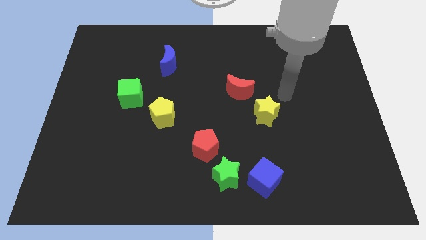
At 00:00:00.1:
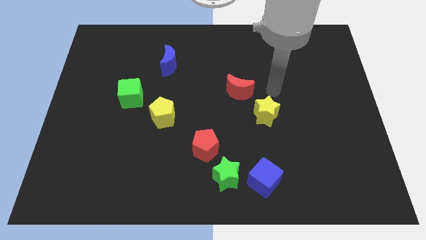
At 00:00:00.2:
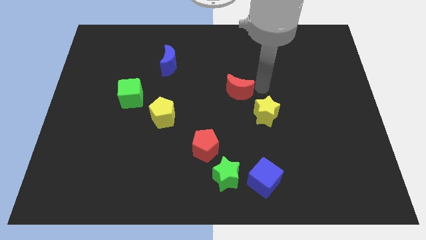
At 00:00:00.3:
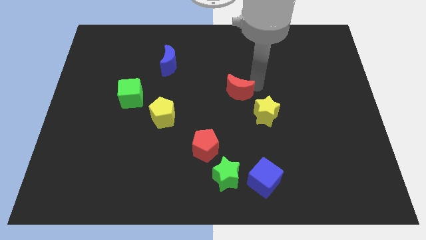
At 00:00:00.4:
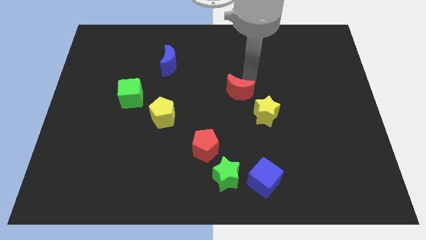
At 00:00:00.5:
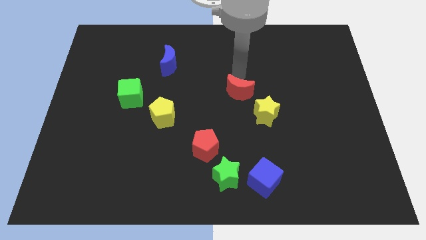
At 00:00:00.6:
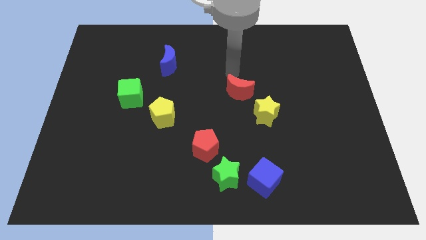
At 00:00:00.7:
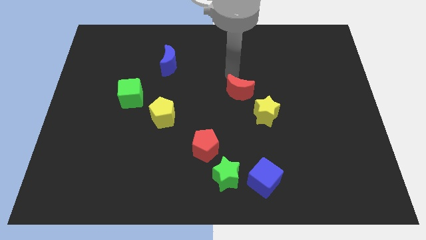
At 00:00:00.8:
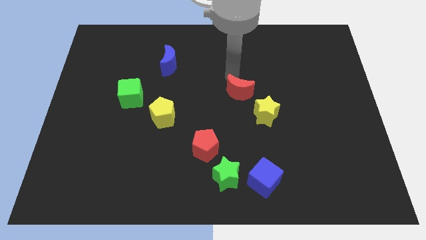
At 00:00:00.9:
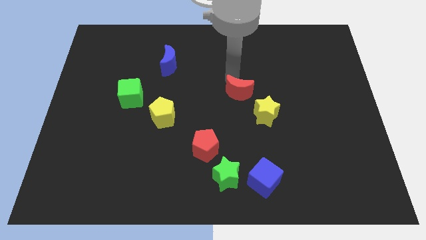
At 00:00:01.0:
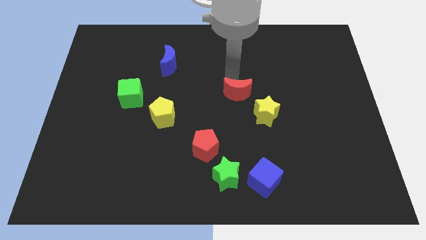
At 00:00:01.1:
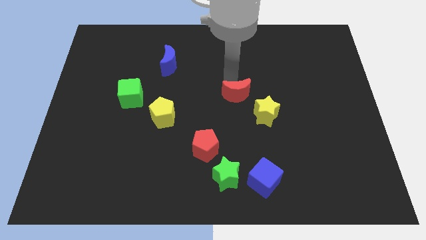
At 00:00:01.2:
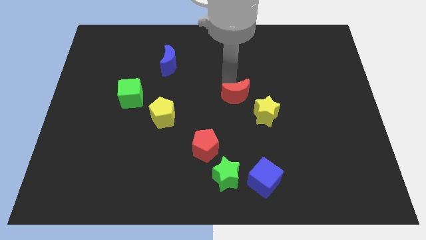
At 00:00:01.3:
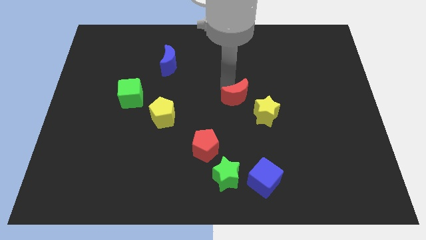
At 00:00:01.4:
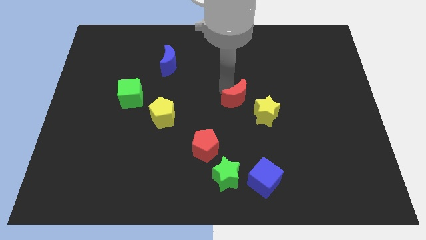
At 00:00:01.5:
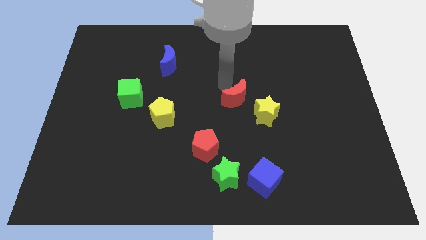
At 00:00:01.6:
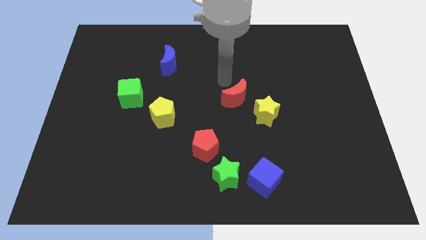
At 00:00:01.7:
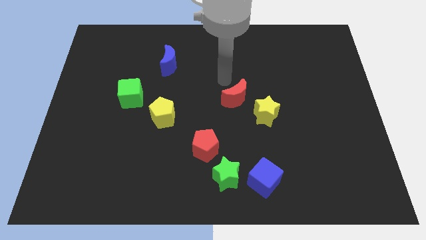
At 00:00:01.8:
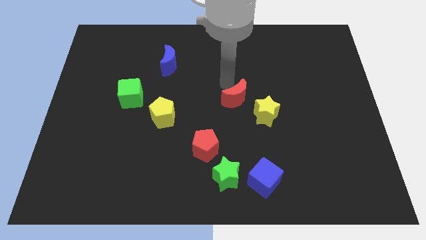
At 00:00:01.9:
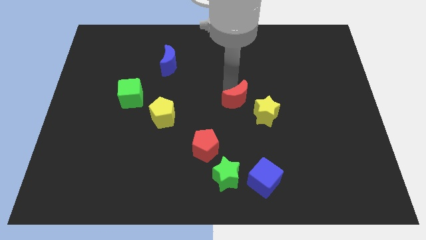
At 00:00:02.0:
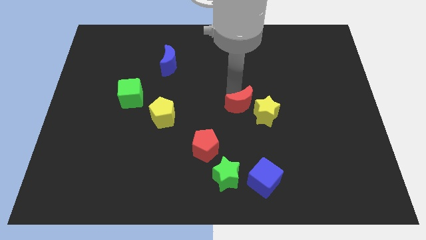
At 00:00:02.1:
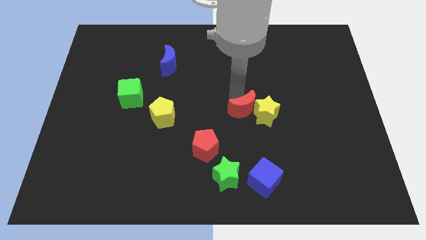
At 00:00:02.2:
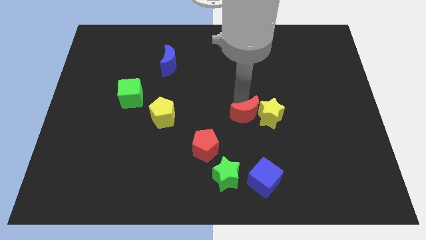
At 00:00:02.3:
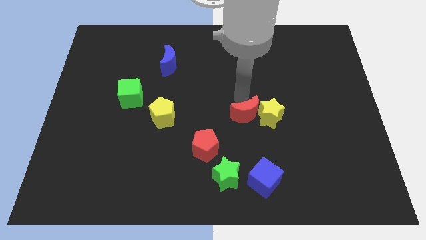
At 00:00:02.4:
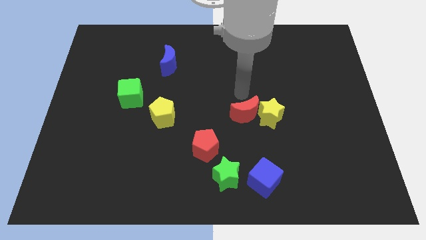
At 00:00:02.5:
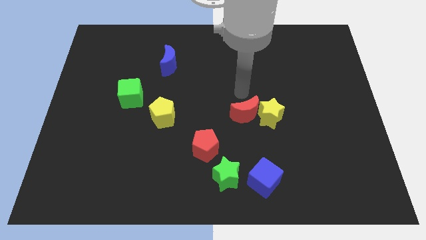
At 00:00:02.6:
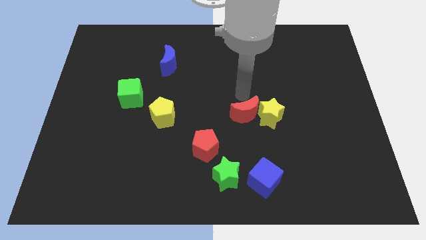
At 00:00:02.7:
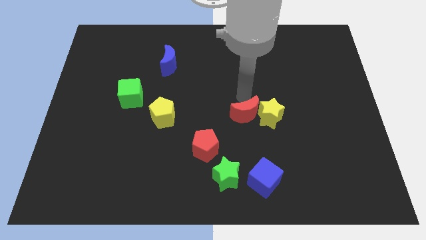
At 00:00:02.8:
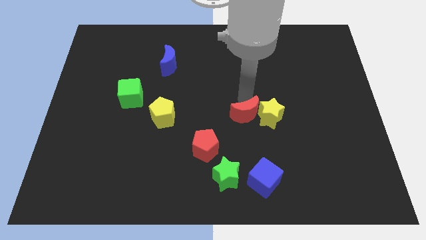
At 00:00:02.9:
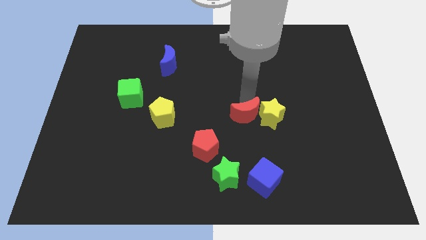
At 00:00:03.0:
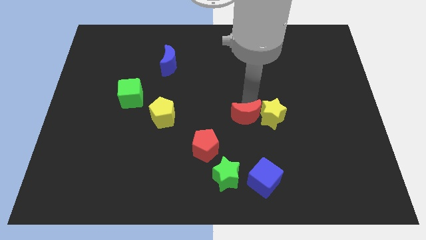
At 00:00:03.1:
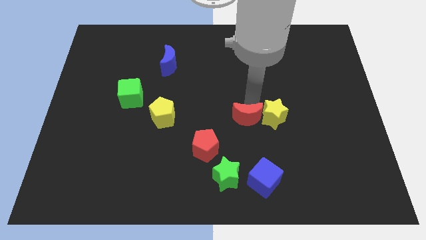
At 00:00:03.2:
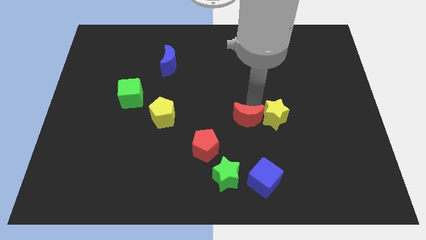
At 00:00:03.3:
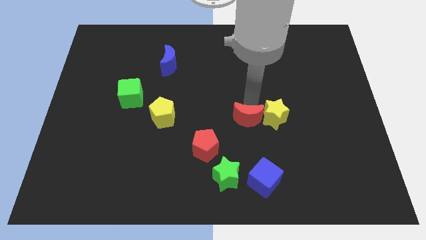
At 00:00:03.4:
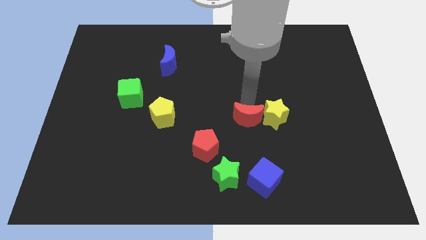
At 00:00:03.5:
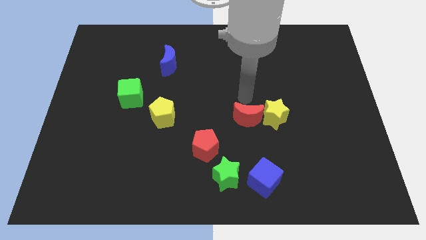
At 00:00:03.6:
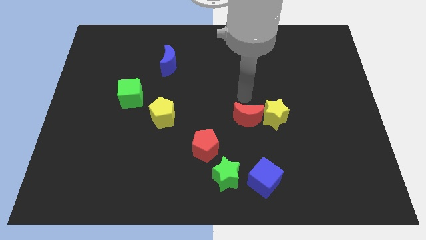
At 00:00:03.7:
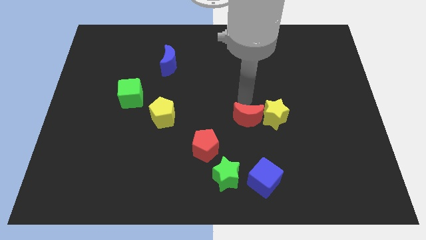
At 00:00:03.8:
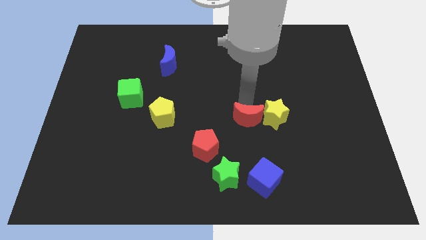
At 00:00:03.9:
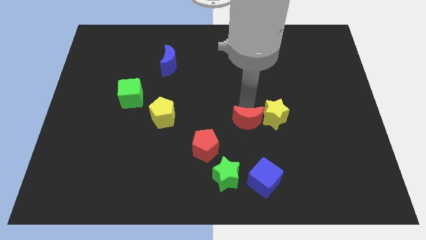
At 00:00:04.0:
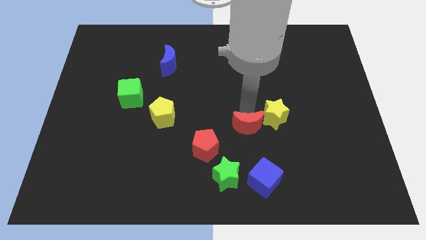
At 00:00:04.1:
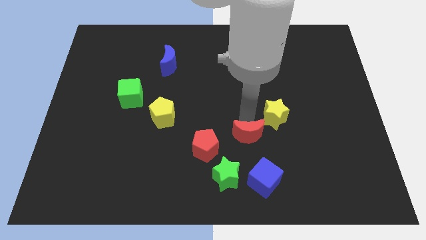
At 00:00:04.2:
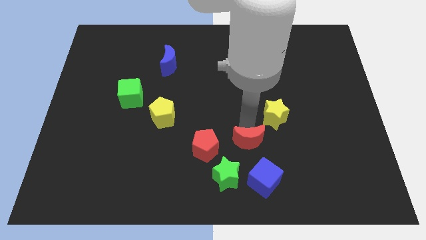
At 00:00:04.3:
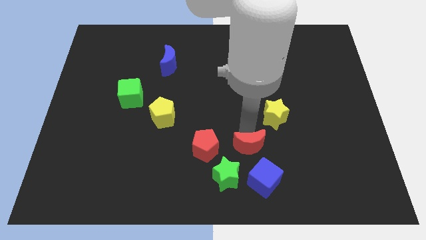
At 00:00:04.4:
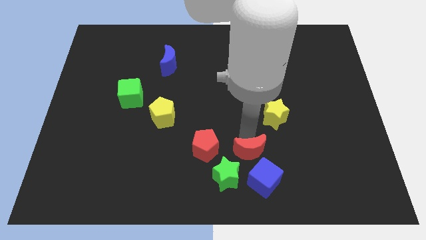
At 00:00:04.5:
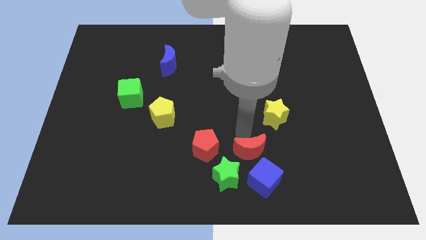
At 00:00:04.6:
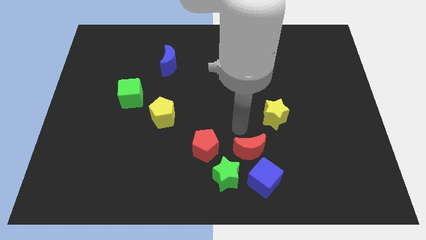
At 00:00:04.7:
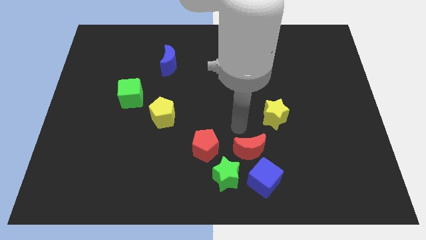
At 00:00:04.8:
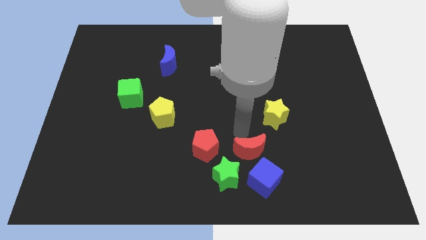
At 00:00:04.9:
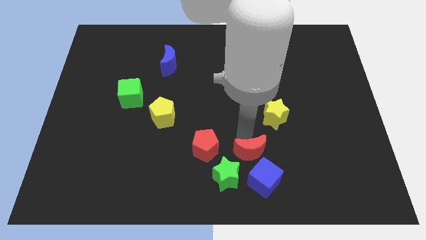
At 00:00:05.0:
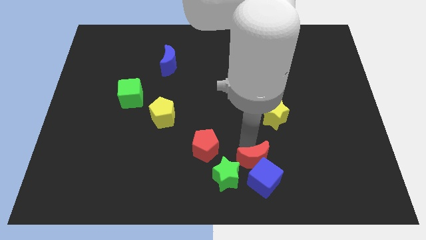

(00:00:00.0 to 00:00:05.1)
move the red moon next to the blue cube

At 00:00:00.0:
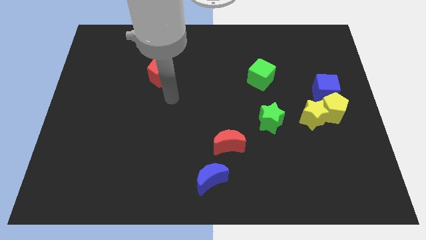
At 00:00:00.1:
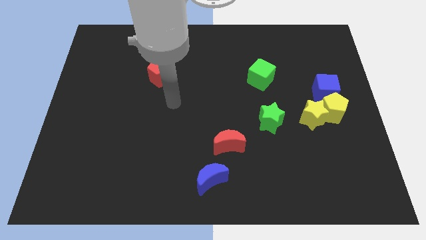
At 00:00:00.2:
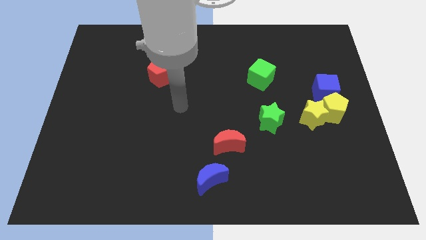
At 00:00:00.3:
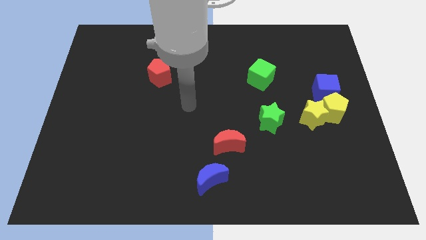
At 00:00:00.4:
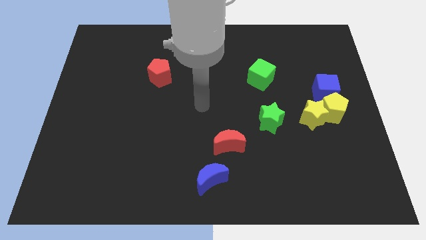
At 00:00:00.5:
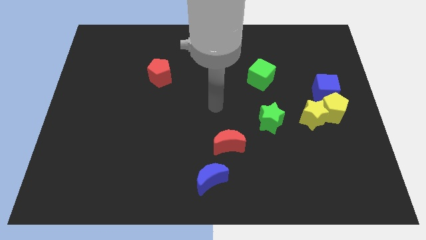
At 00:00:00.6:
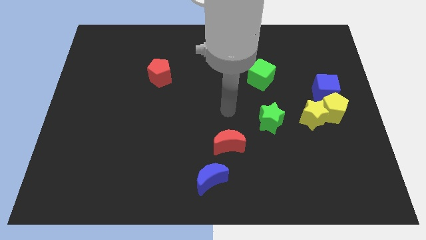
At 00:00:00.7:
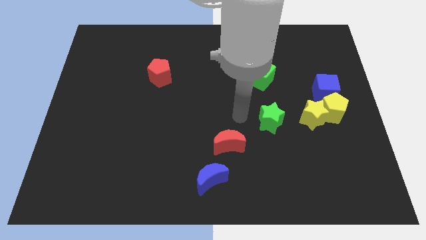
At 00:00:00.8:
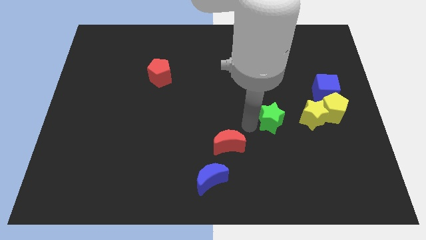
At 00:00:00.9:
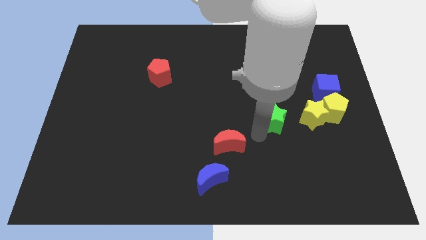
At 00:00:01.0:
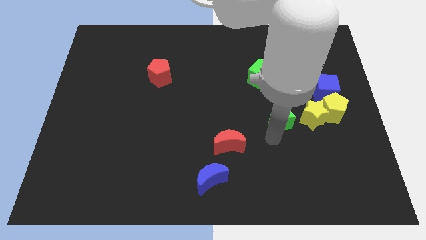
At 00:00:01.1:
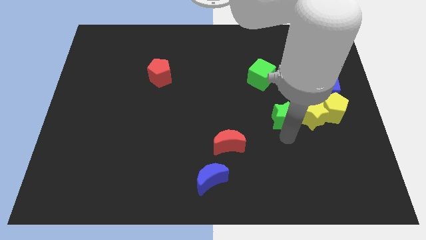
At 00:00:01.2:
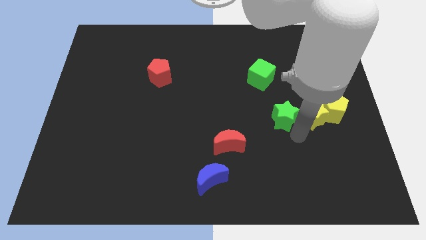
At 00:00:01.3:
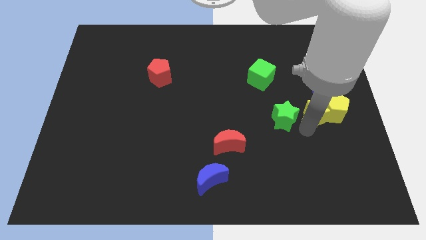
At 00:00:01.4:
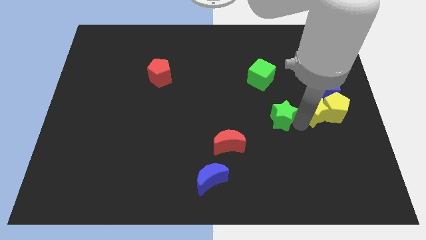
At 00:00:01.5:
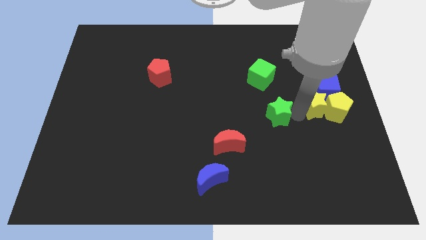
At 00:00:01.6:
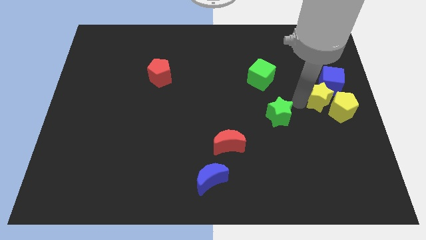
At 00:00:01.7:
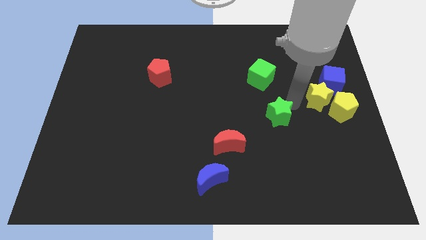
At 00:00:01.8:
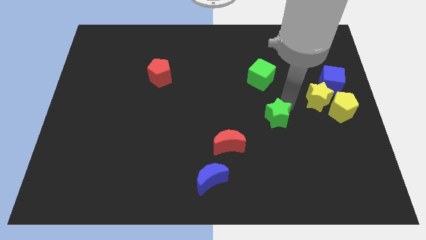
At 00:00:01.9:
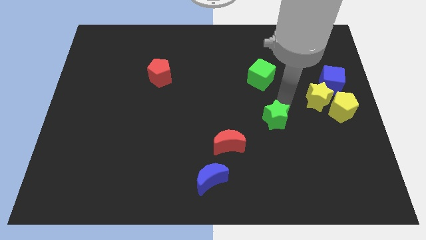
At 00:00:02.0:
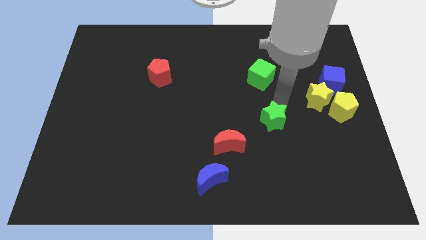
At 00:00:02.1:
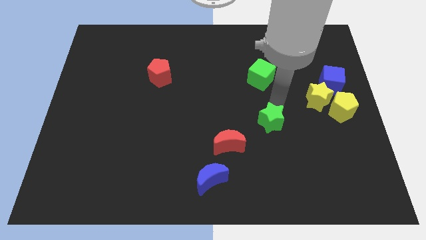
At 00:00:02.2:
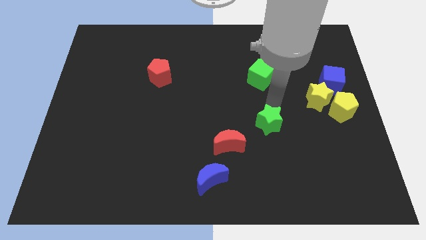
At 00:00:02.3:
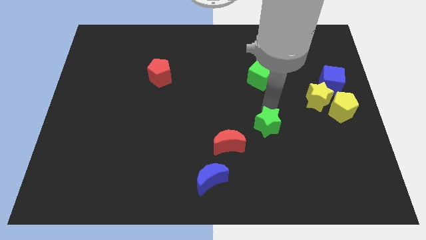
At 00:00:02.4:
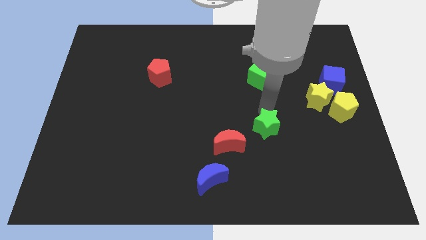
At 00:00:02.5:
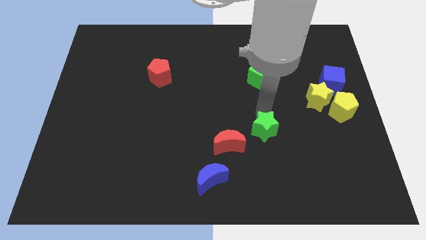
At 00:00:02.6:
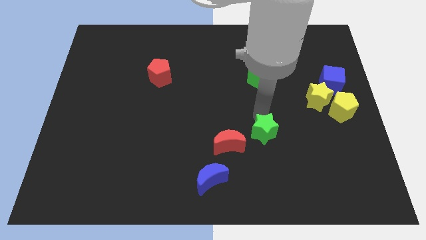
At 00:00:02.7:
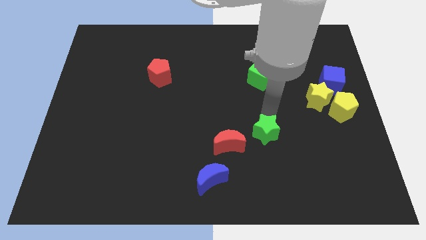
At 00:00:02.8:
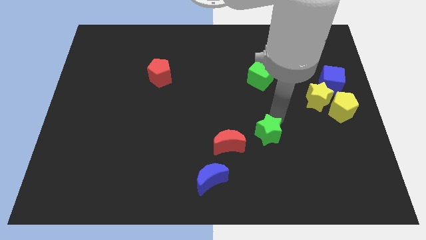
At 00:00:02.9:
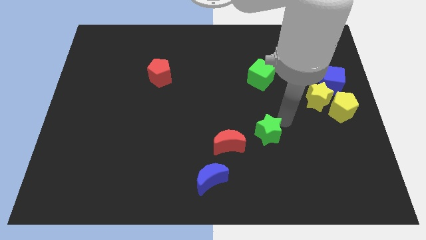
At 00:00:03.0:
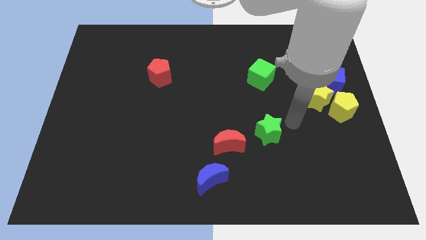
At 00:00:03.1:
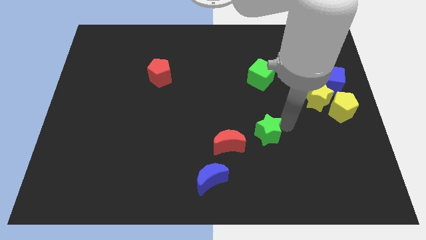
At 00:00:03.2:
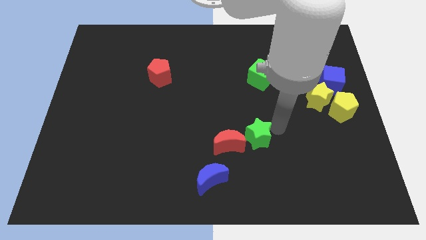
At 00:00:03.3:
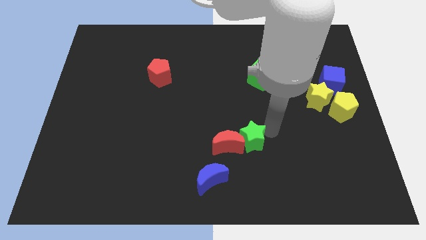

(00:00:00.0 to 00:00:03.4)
put the green star close to the red moon
